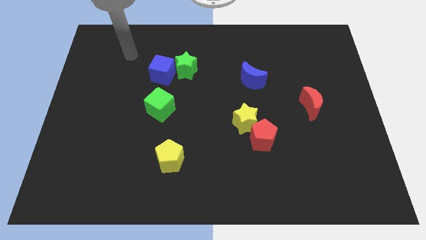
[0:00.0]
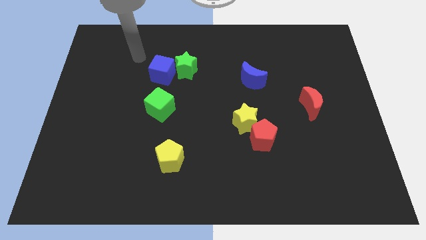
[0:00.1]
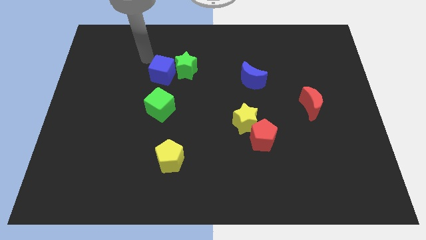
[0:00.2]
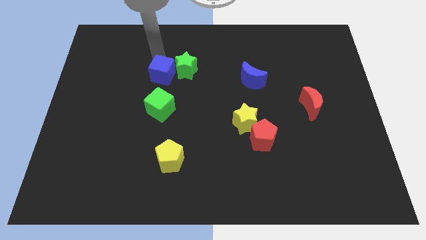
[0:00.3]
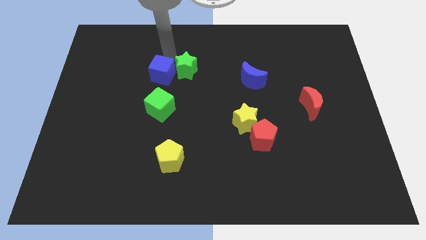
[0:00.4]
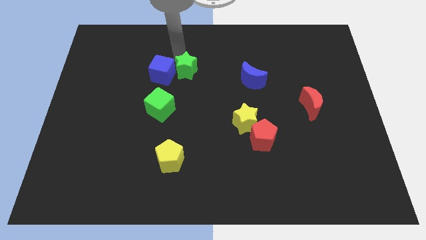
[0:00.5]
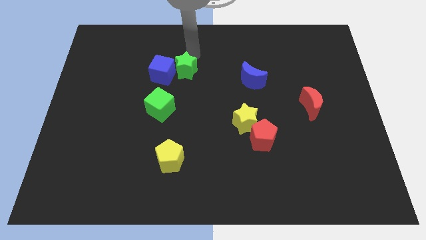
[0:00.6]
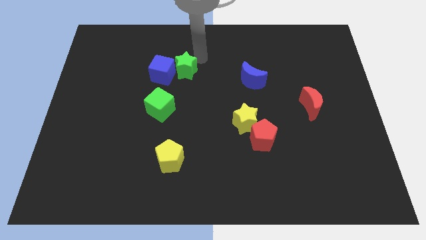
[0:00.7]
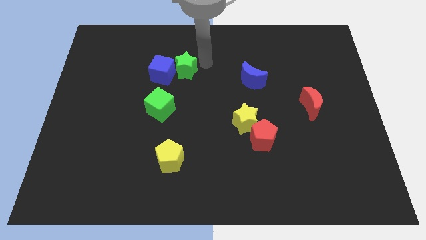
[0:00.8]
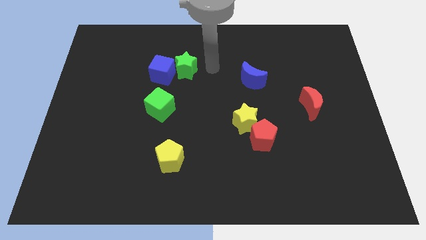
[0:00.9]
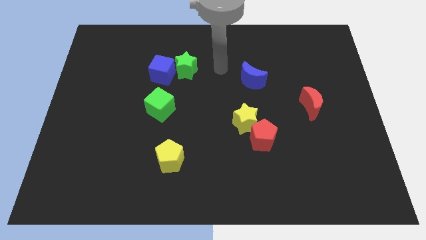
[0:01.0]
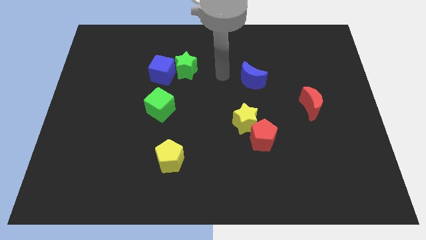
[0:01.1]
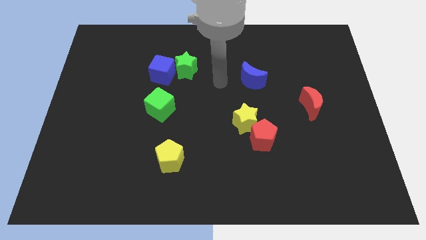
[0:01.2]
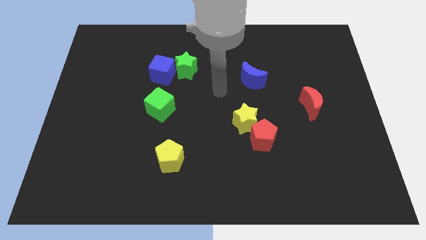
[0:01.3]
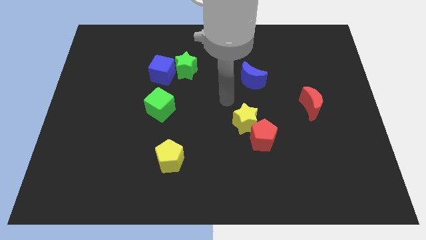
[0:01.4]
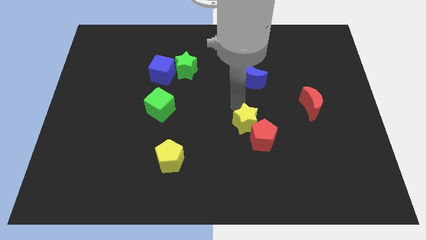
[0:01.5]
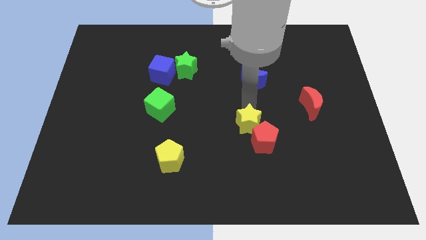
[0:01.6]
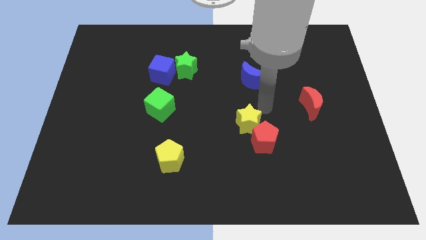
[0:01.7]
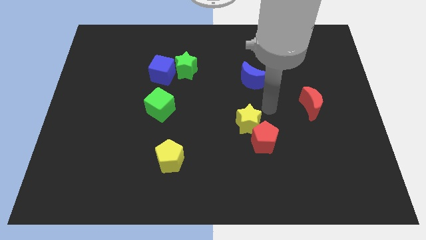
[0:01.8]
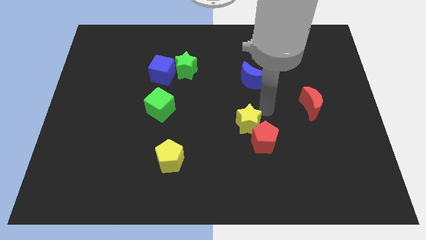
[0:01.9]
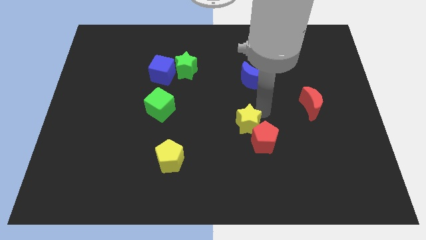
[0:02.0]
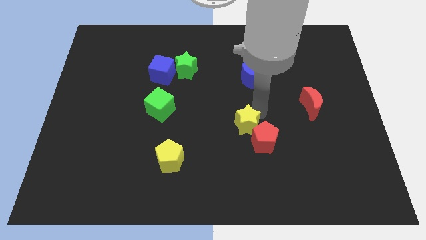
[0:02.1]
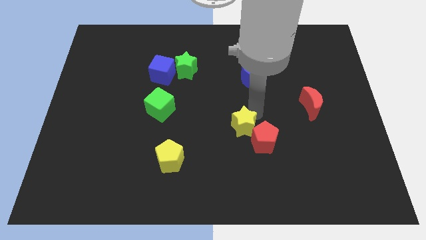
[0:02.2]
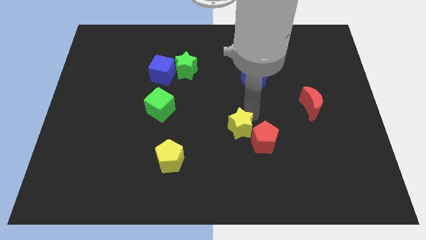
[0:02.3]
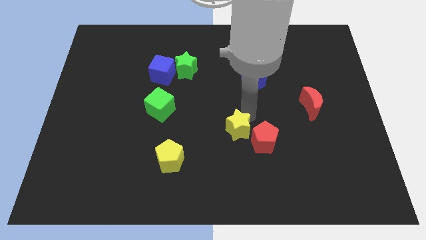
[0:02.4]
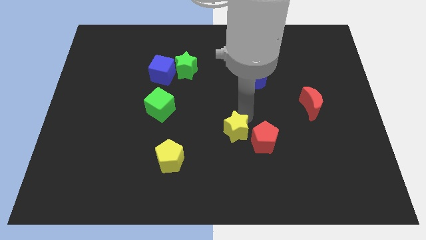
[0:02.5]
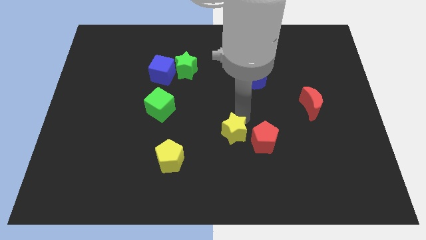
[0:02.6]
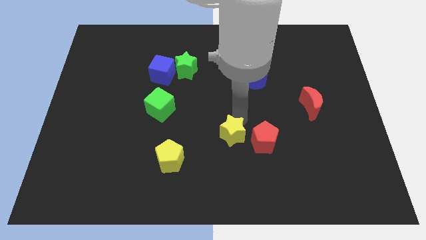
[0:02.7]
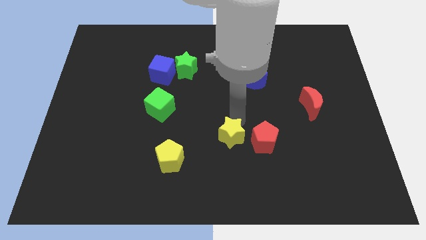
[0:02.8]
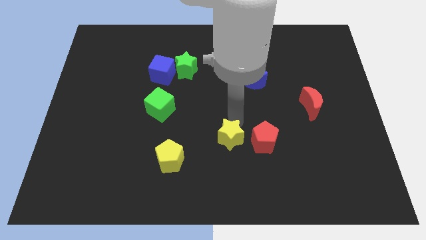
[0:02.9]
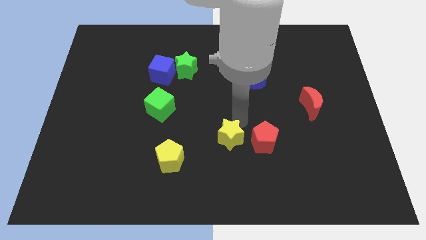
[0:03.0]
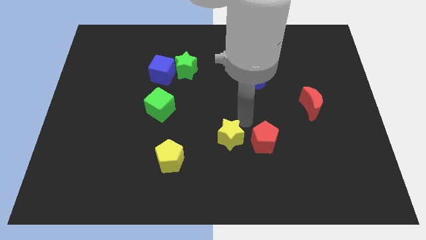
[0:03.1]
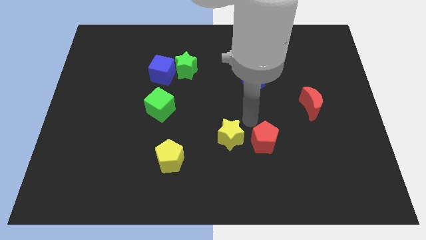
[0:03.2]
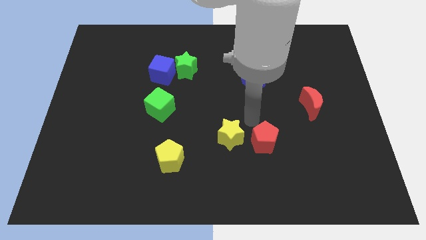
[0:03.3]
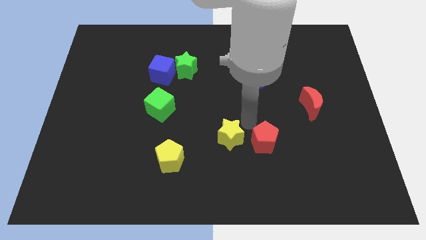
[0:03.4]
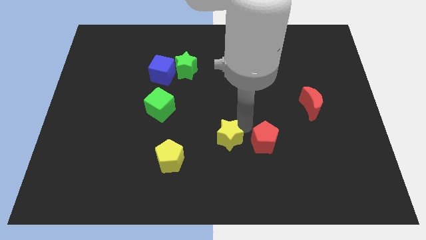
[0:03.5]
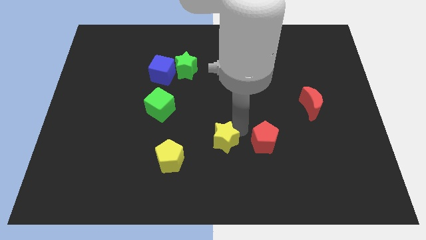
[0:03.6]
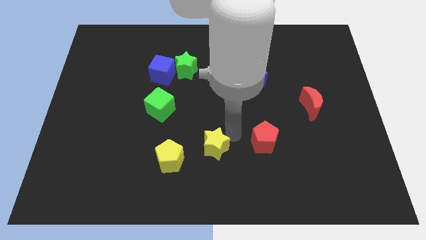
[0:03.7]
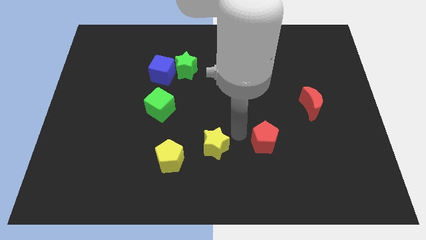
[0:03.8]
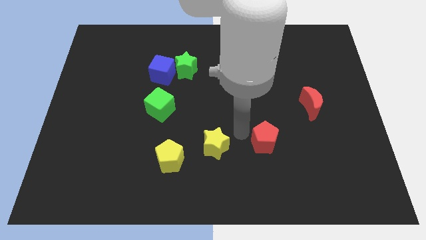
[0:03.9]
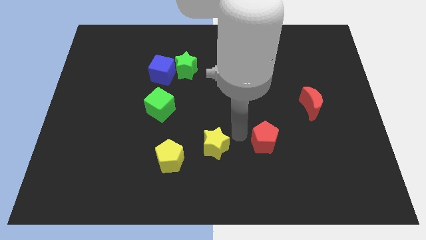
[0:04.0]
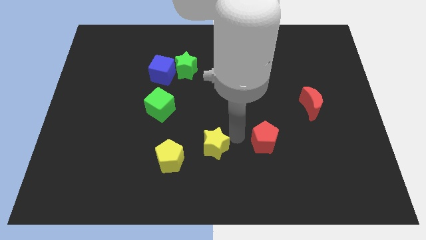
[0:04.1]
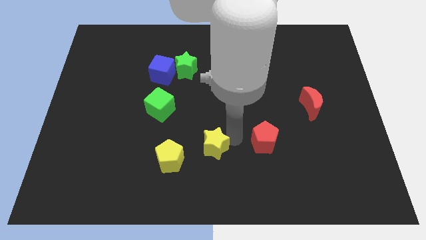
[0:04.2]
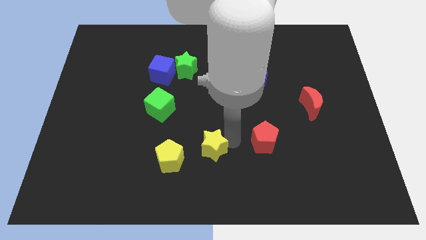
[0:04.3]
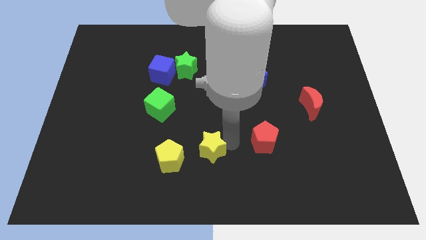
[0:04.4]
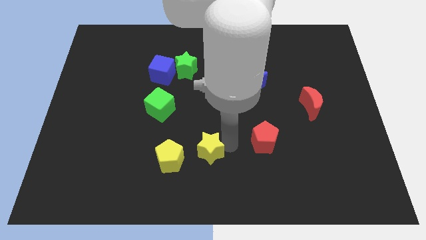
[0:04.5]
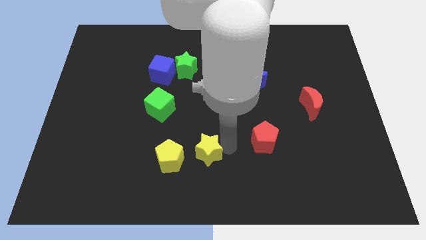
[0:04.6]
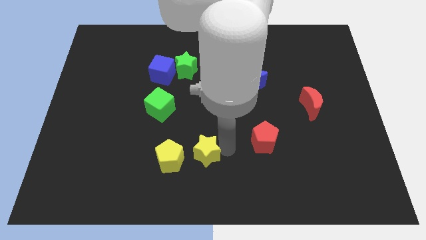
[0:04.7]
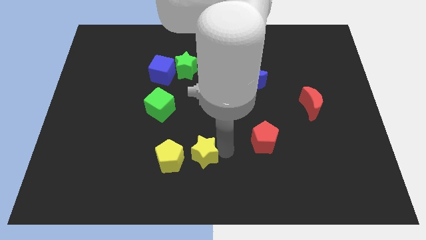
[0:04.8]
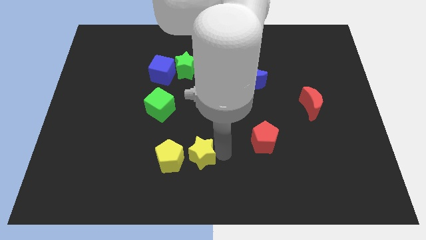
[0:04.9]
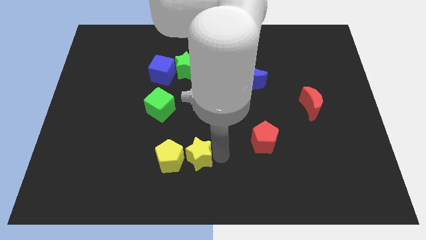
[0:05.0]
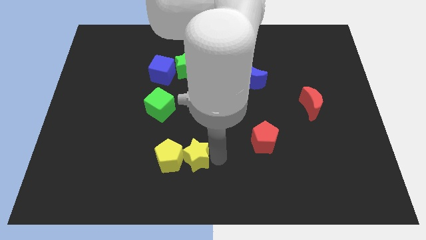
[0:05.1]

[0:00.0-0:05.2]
put the yellow star towards the yellow pentagon

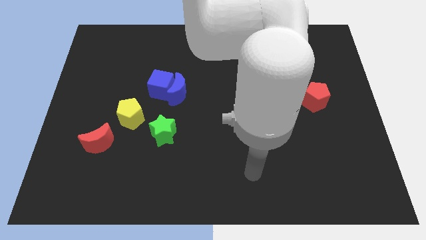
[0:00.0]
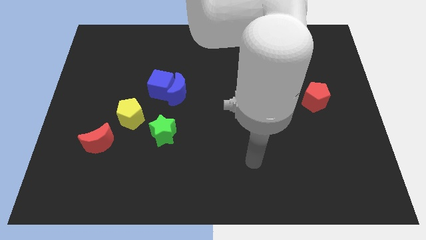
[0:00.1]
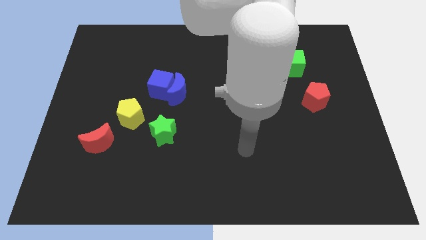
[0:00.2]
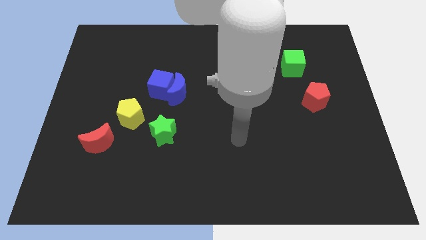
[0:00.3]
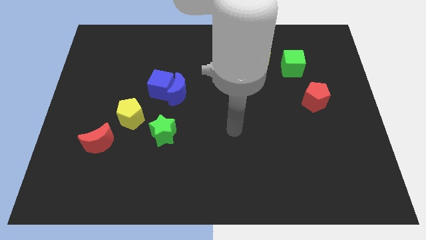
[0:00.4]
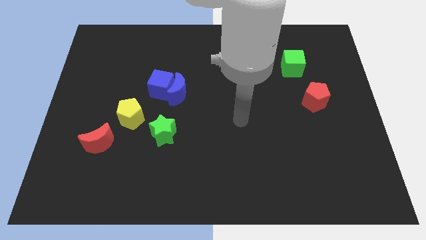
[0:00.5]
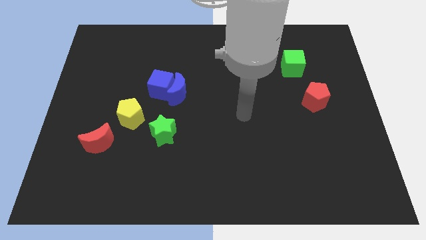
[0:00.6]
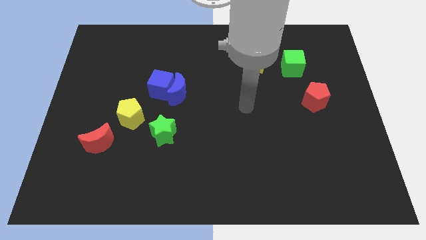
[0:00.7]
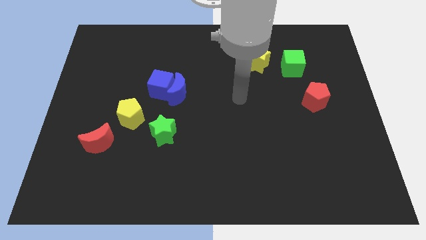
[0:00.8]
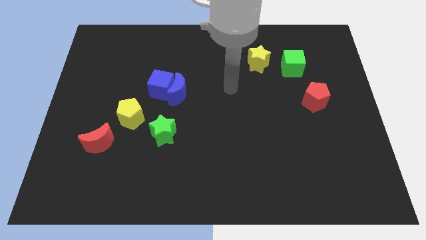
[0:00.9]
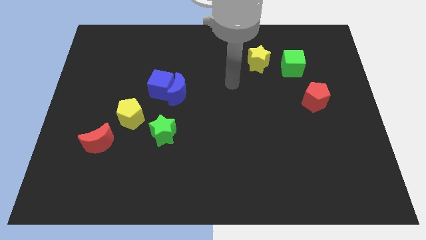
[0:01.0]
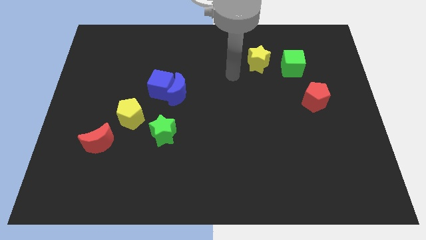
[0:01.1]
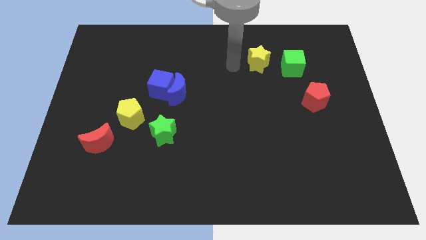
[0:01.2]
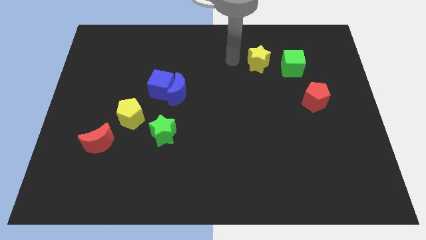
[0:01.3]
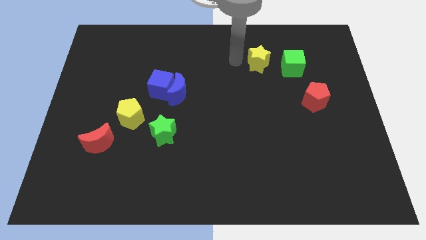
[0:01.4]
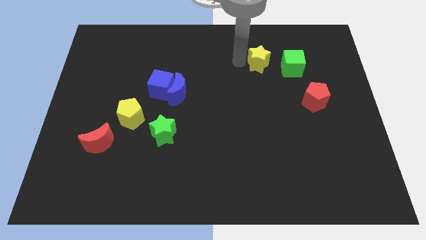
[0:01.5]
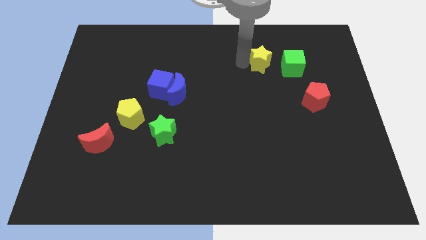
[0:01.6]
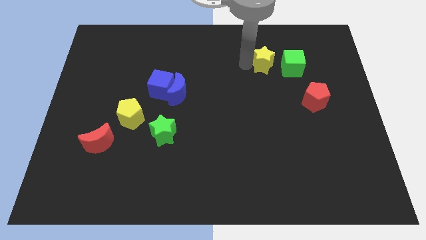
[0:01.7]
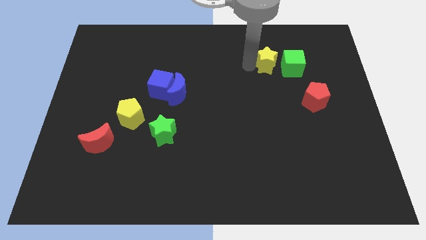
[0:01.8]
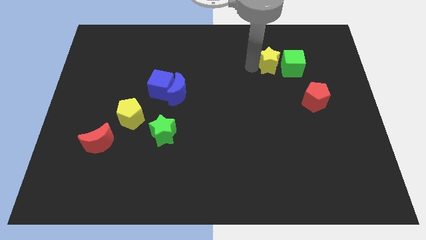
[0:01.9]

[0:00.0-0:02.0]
push the yellow star next to the green cube
